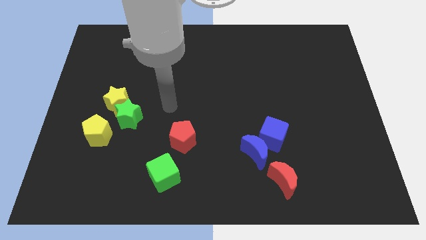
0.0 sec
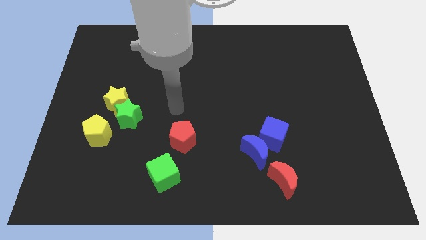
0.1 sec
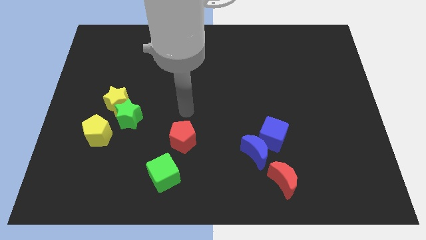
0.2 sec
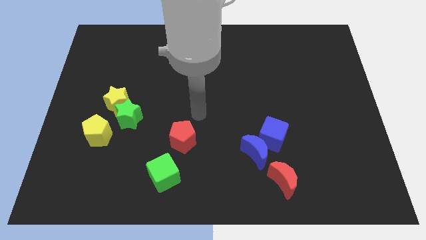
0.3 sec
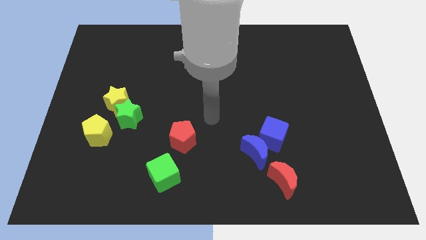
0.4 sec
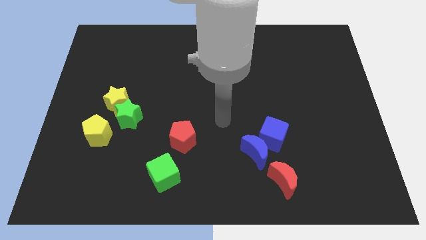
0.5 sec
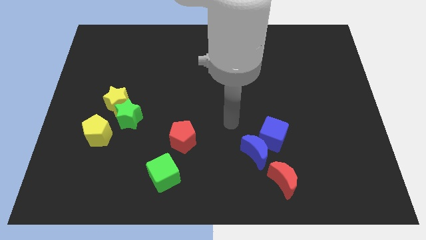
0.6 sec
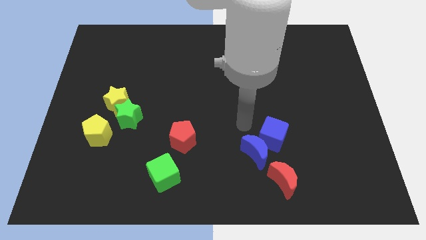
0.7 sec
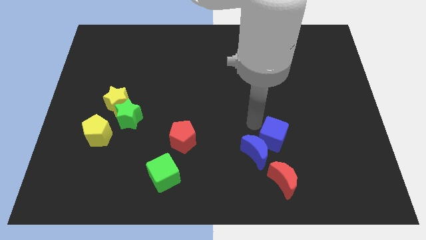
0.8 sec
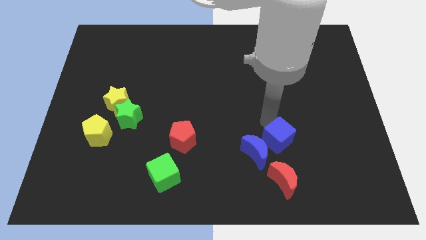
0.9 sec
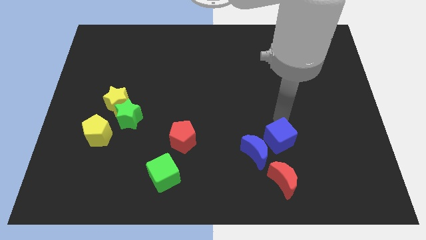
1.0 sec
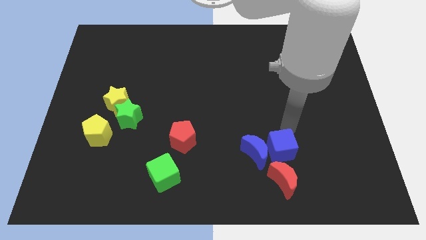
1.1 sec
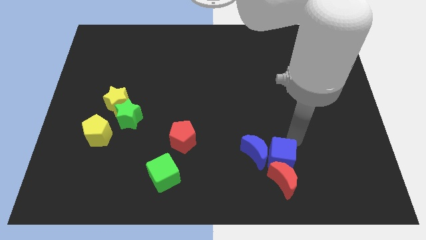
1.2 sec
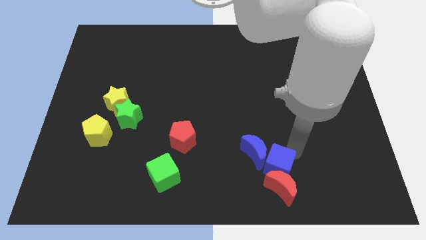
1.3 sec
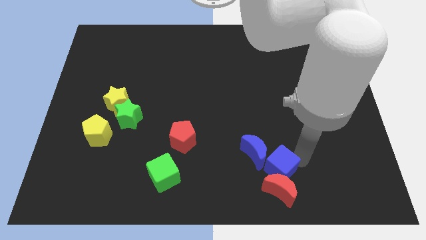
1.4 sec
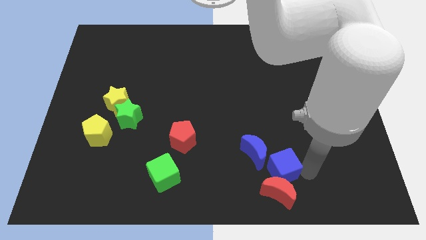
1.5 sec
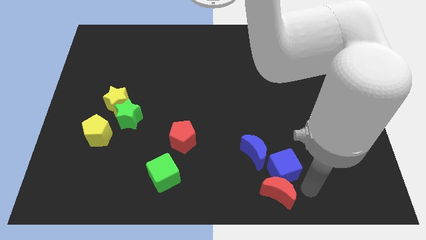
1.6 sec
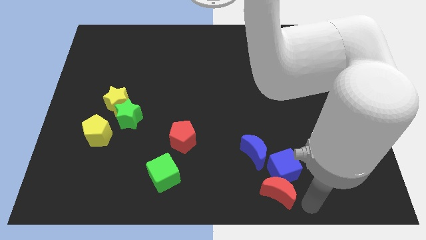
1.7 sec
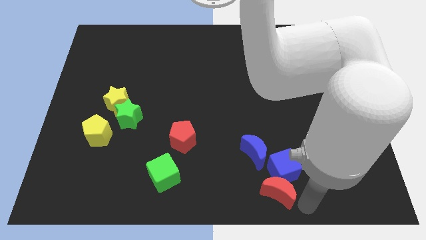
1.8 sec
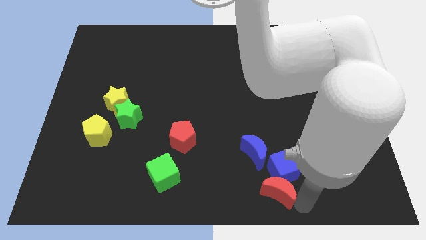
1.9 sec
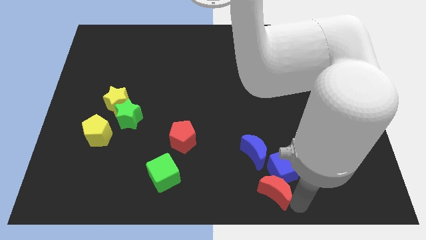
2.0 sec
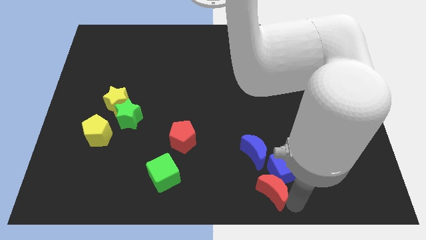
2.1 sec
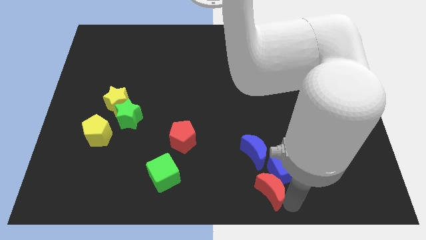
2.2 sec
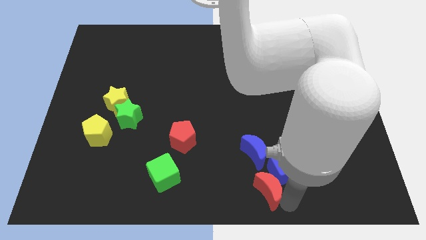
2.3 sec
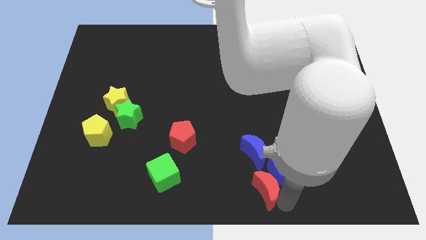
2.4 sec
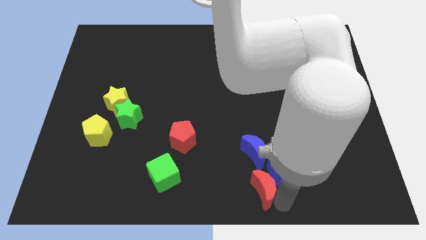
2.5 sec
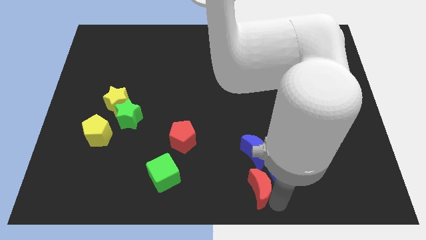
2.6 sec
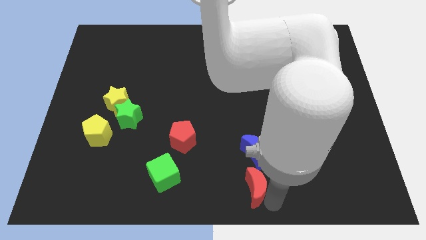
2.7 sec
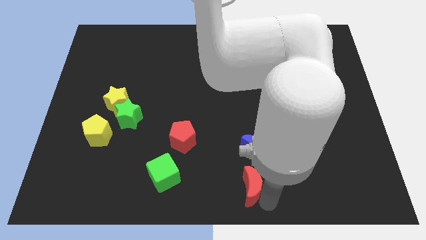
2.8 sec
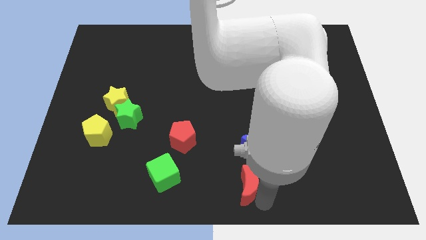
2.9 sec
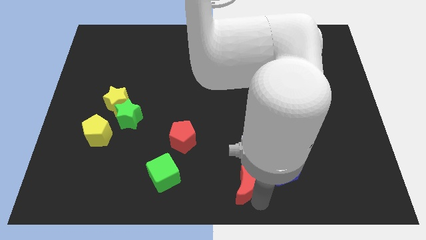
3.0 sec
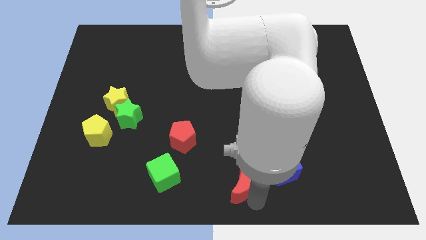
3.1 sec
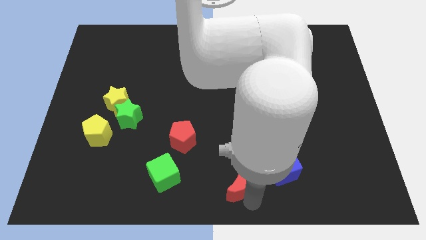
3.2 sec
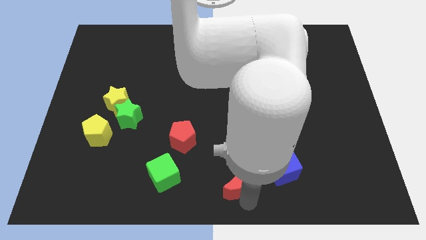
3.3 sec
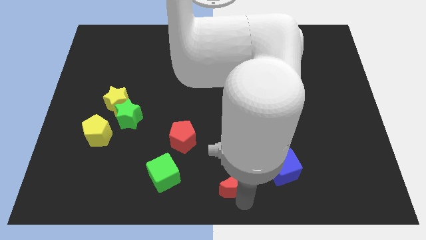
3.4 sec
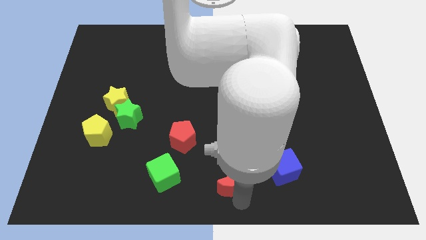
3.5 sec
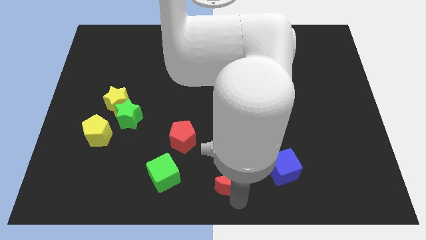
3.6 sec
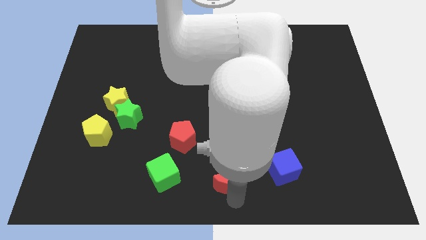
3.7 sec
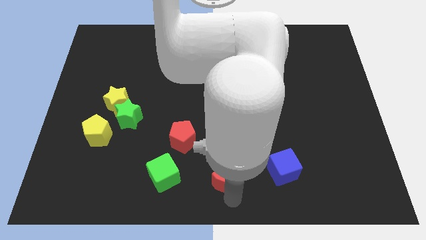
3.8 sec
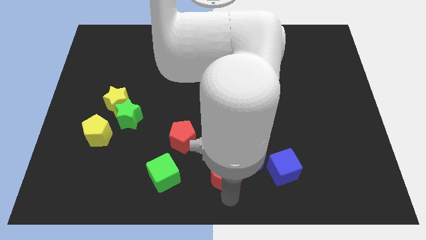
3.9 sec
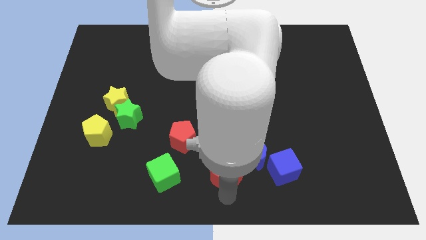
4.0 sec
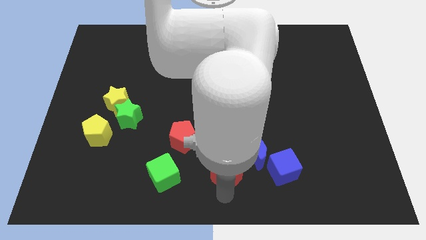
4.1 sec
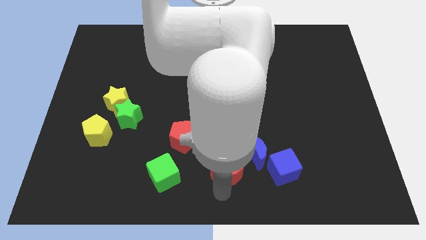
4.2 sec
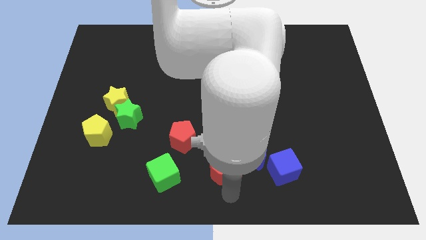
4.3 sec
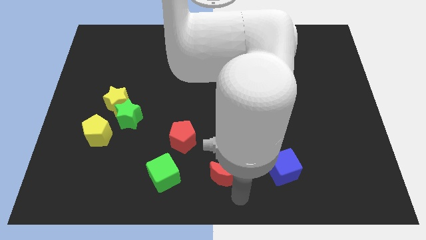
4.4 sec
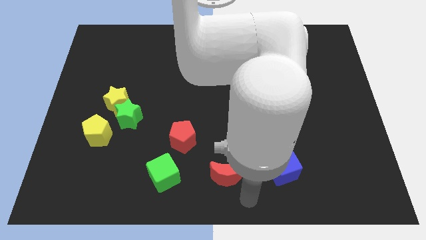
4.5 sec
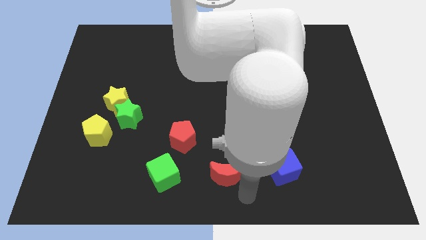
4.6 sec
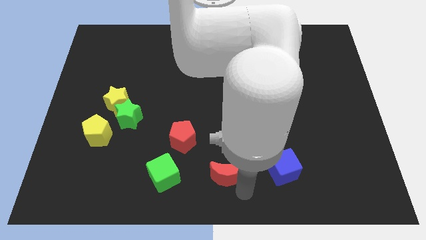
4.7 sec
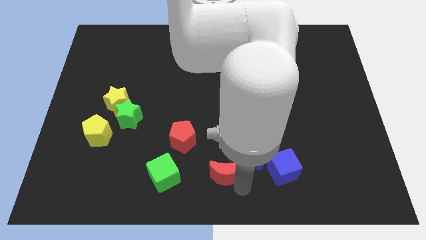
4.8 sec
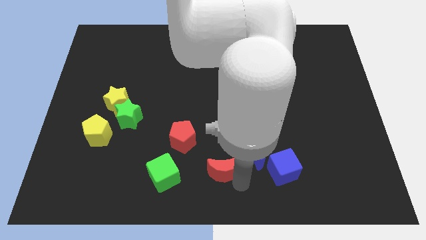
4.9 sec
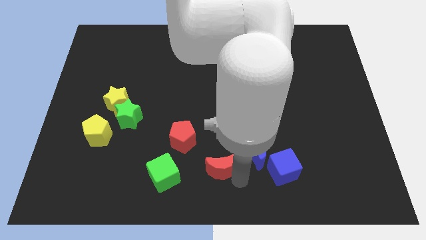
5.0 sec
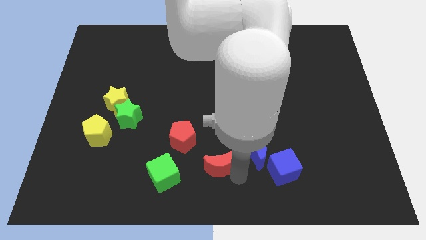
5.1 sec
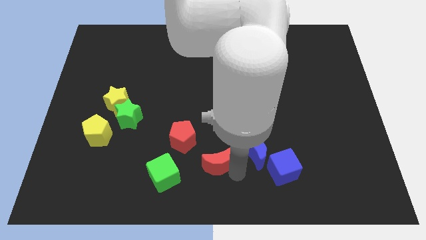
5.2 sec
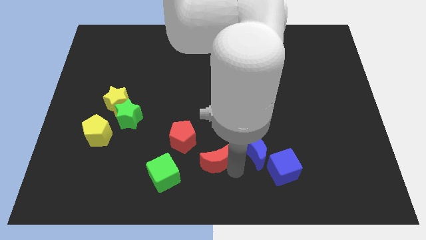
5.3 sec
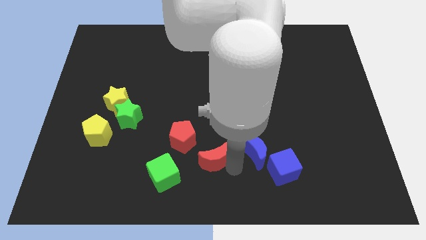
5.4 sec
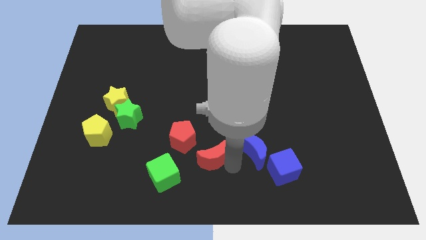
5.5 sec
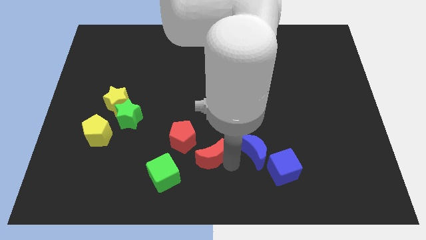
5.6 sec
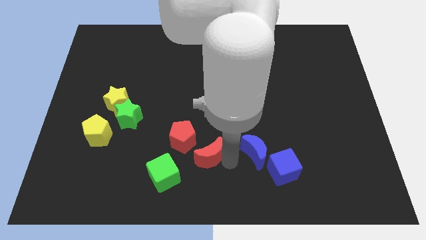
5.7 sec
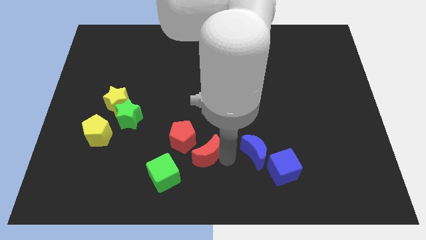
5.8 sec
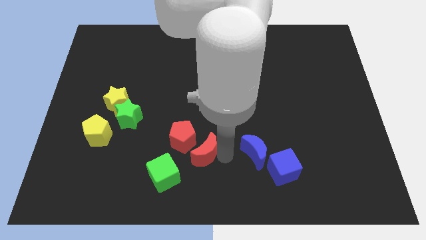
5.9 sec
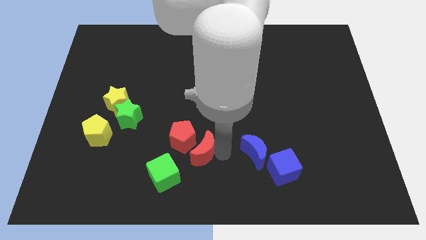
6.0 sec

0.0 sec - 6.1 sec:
push the red moon next to the red pentagon

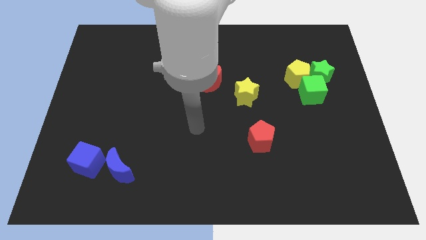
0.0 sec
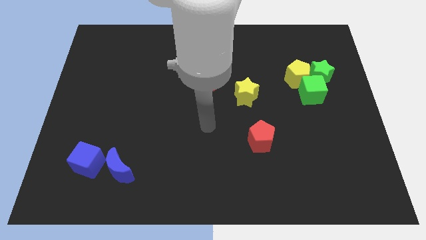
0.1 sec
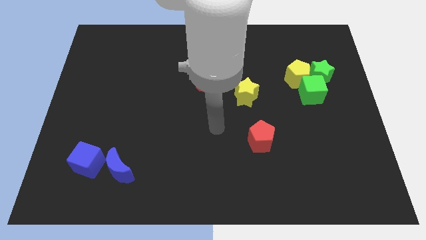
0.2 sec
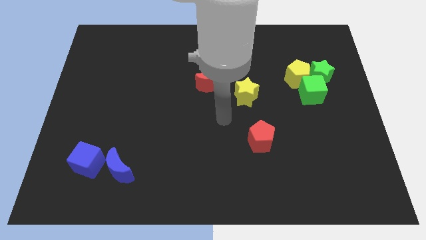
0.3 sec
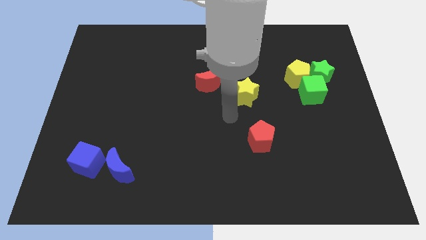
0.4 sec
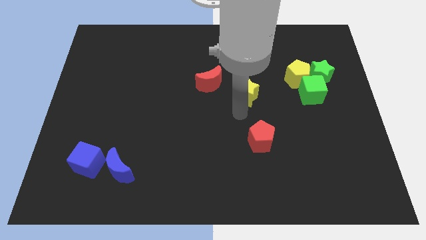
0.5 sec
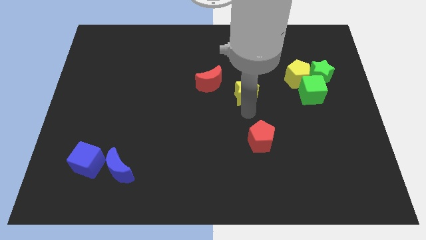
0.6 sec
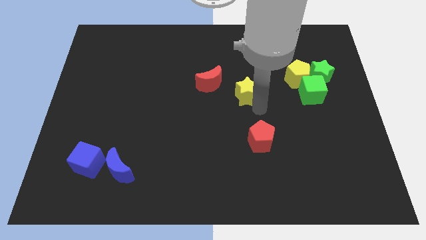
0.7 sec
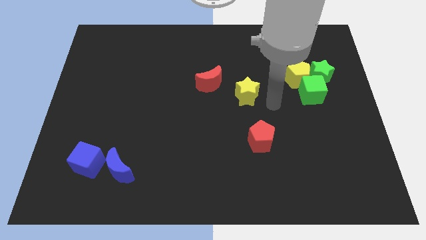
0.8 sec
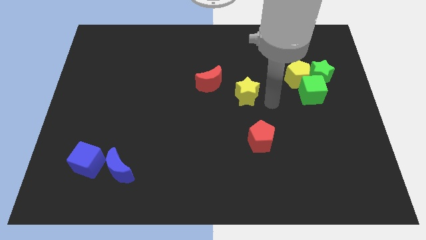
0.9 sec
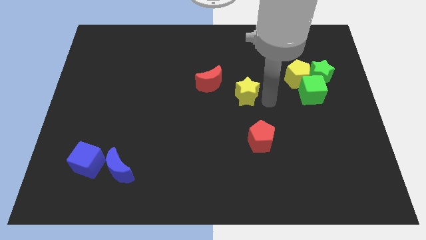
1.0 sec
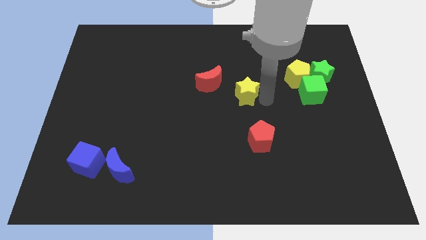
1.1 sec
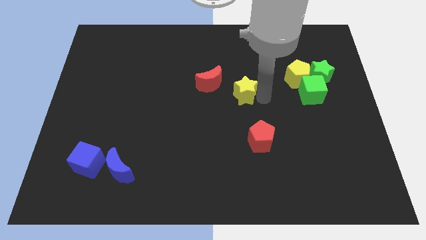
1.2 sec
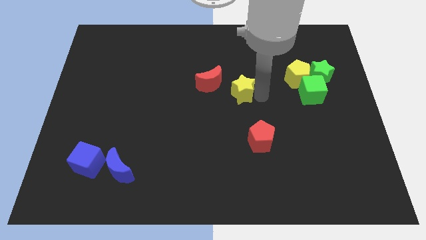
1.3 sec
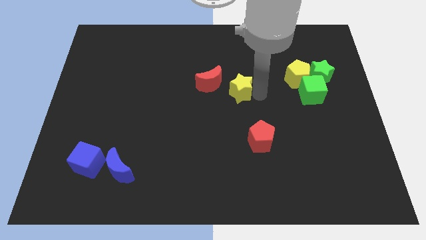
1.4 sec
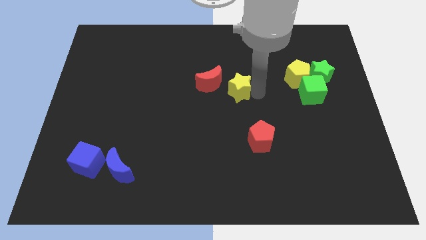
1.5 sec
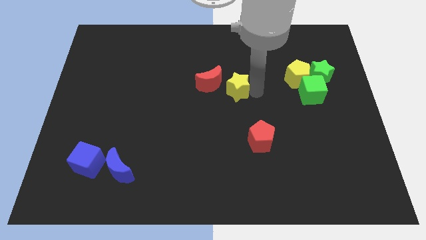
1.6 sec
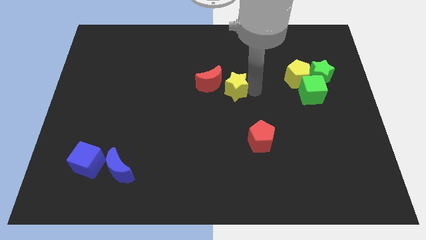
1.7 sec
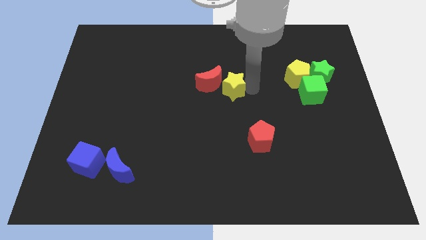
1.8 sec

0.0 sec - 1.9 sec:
push the yellow star to the red moon
